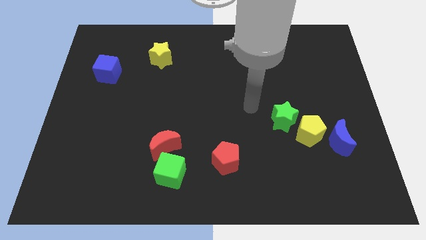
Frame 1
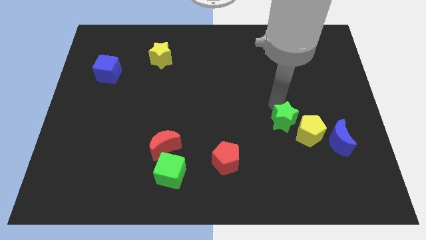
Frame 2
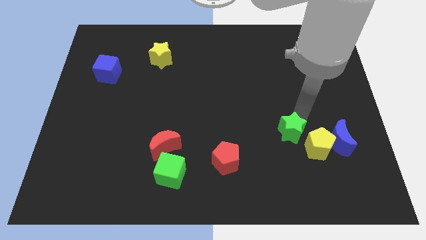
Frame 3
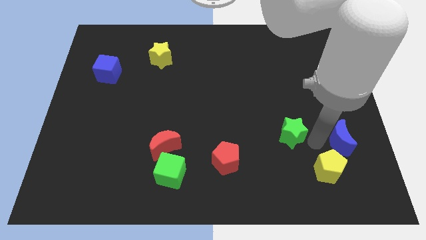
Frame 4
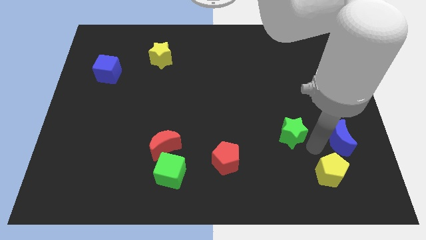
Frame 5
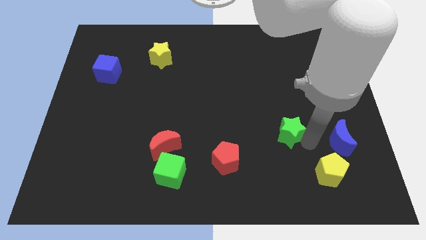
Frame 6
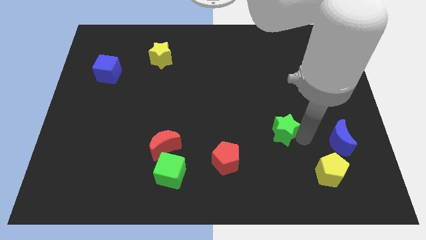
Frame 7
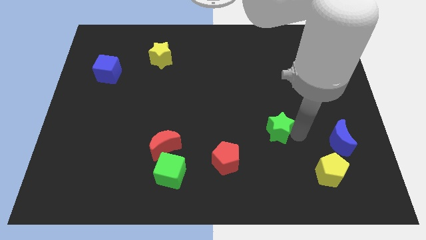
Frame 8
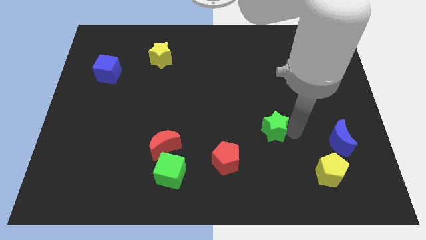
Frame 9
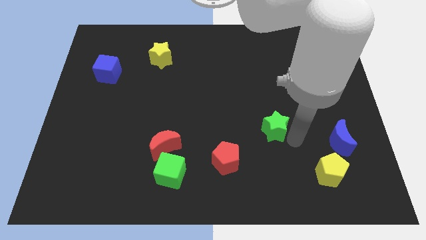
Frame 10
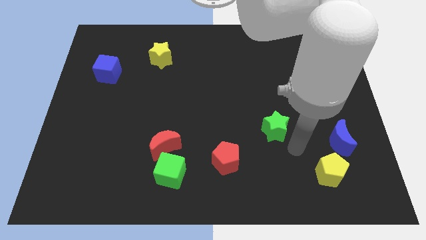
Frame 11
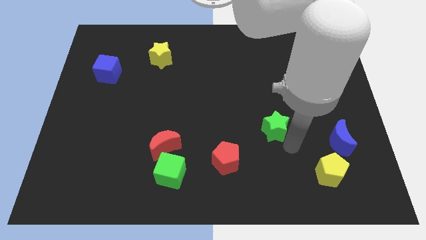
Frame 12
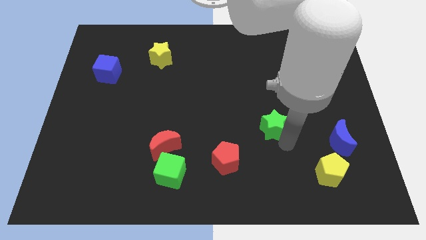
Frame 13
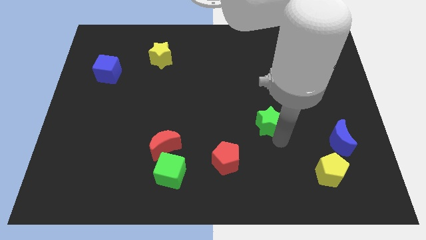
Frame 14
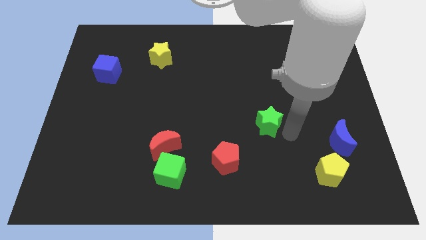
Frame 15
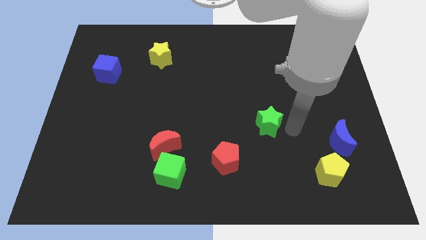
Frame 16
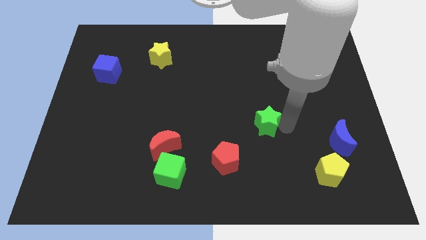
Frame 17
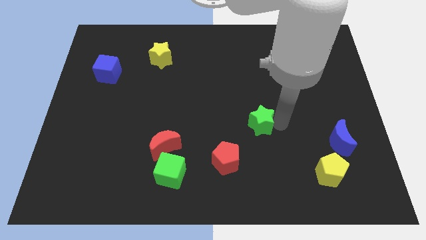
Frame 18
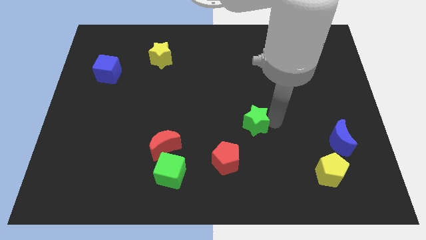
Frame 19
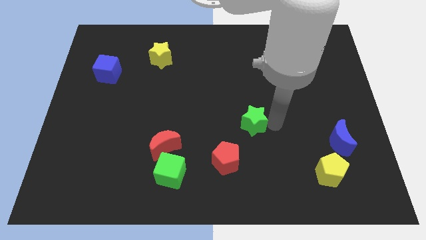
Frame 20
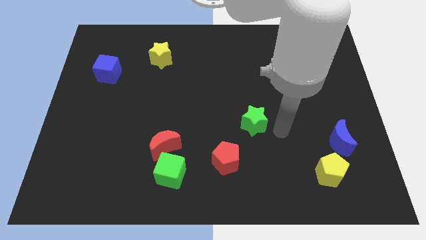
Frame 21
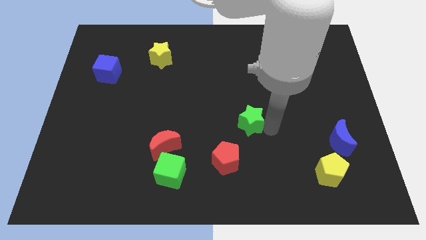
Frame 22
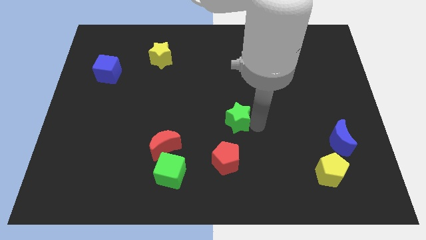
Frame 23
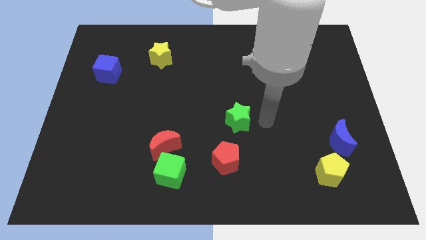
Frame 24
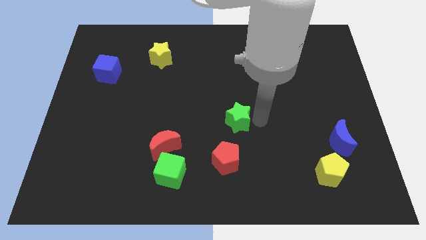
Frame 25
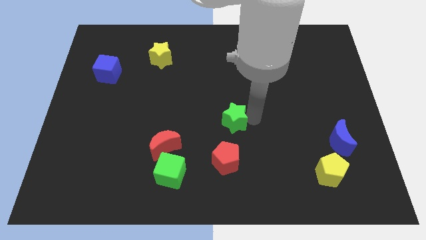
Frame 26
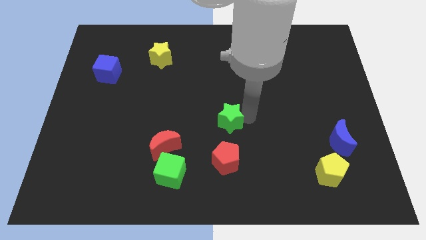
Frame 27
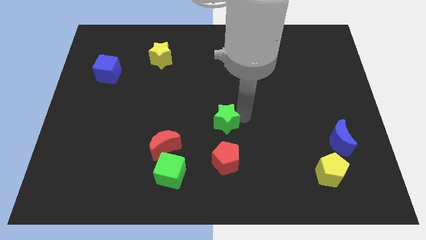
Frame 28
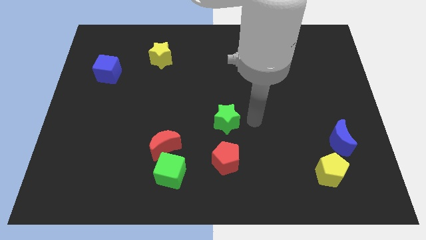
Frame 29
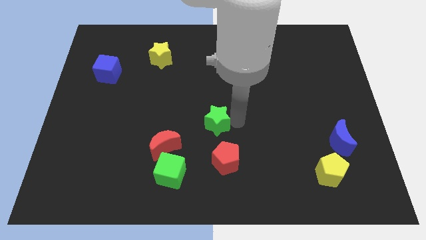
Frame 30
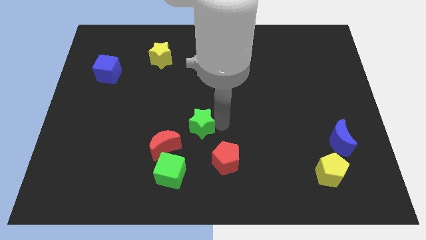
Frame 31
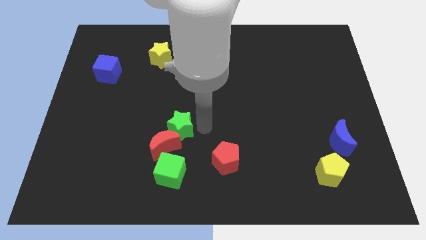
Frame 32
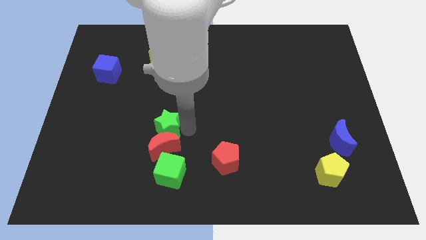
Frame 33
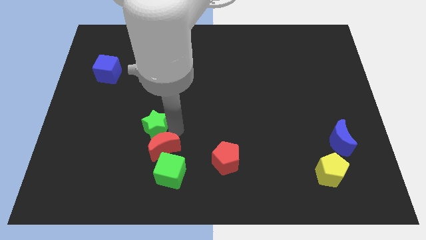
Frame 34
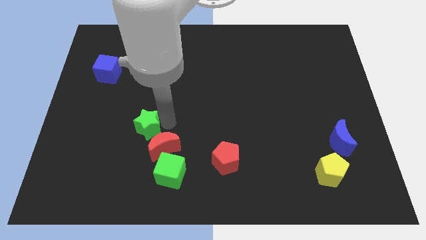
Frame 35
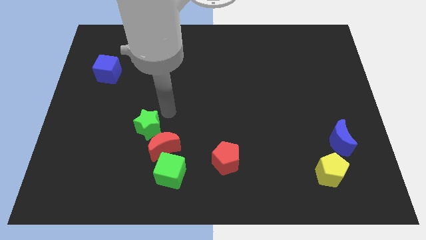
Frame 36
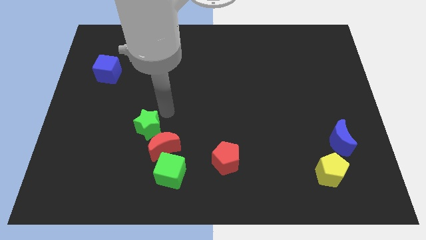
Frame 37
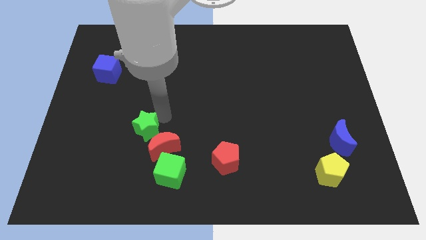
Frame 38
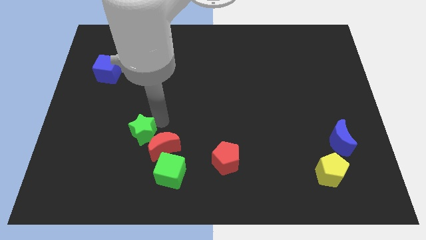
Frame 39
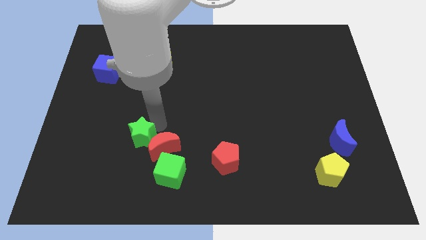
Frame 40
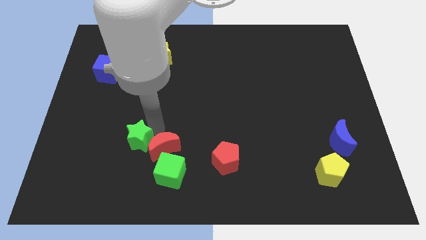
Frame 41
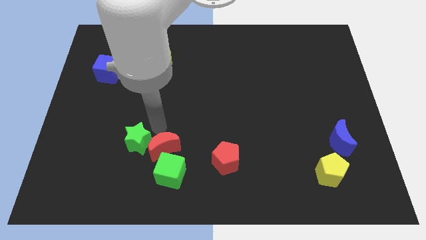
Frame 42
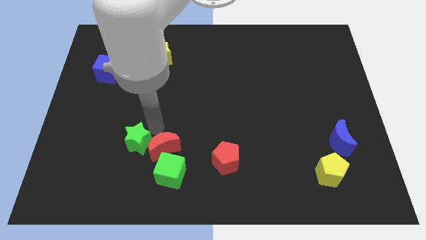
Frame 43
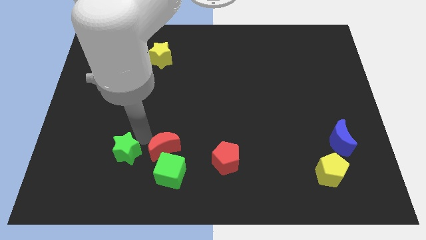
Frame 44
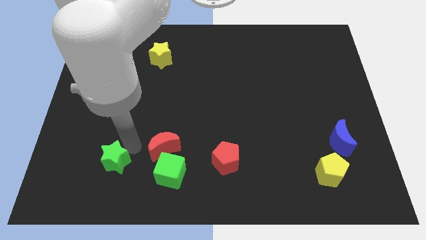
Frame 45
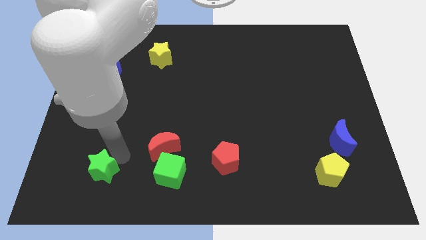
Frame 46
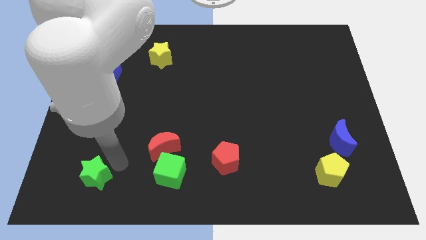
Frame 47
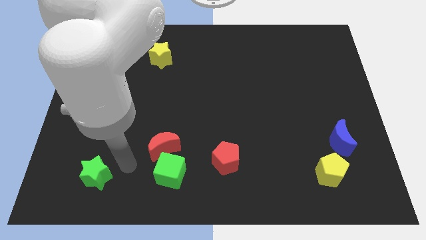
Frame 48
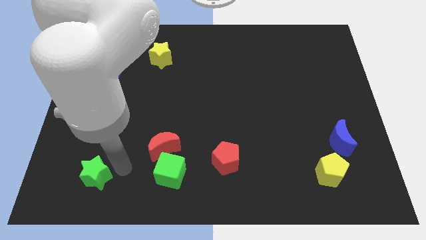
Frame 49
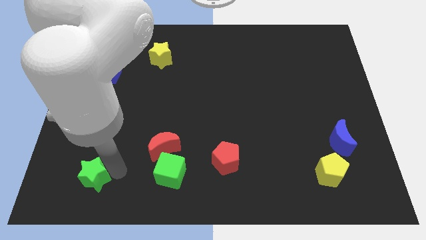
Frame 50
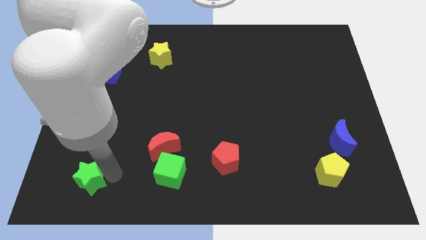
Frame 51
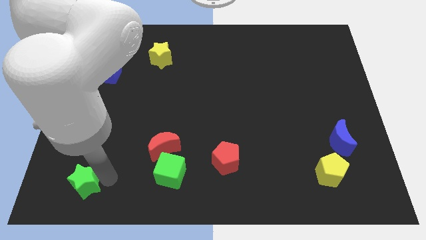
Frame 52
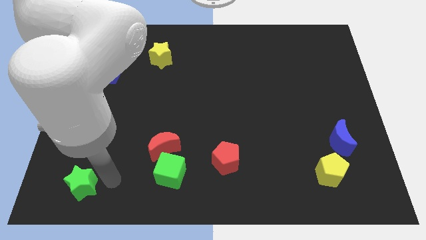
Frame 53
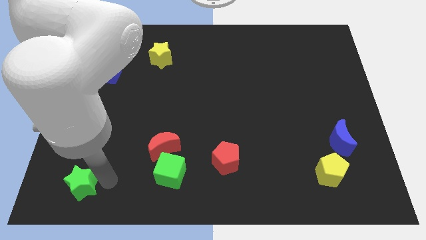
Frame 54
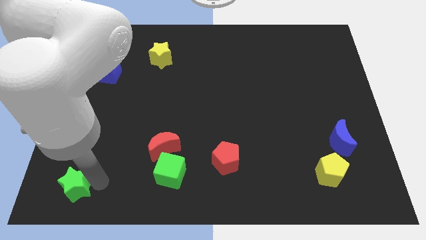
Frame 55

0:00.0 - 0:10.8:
put the green star to the lower left corner
